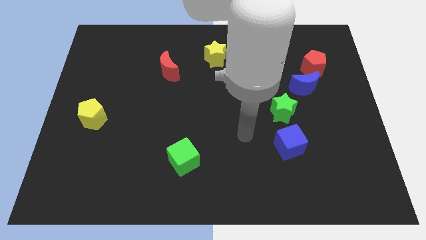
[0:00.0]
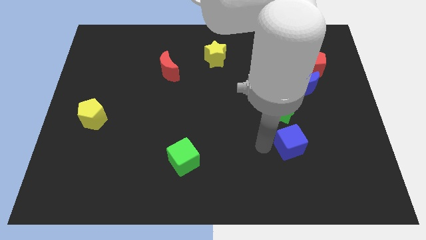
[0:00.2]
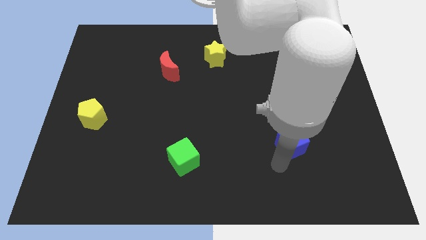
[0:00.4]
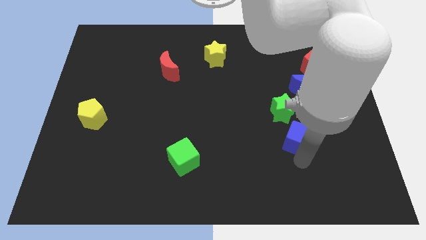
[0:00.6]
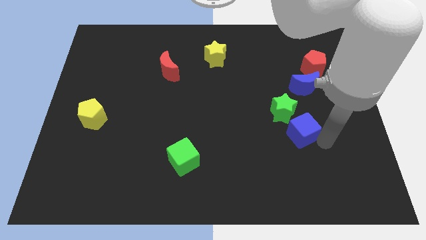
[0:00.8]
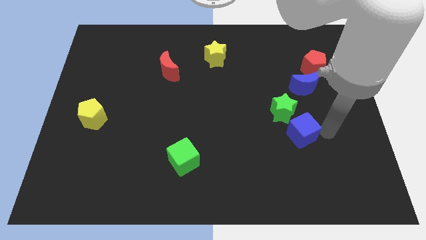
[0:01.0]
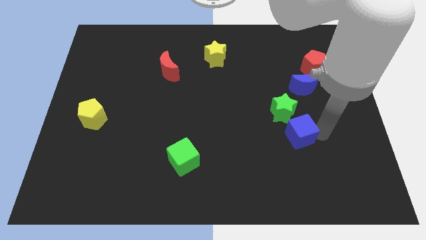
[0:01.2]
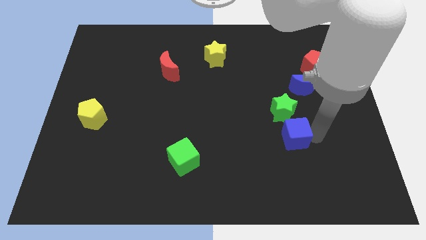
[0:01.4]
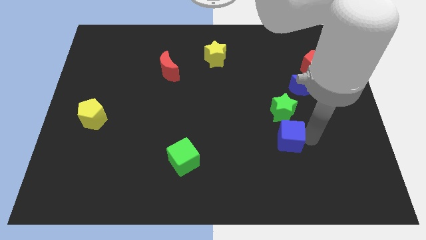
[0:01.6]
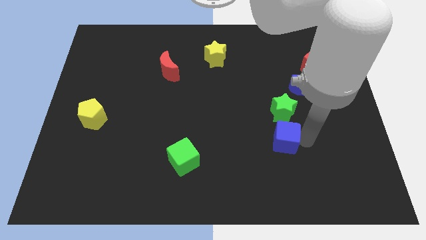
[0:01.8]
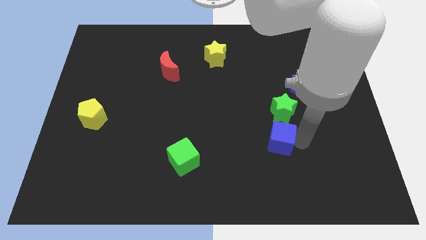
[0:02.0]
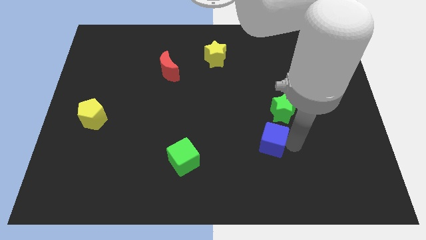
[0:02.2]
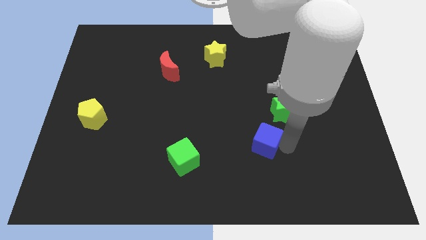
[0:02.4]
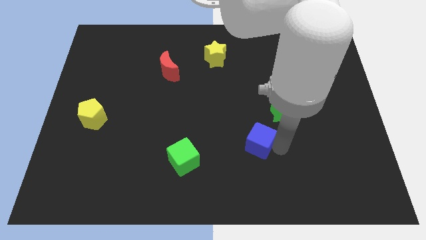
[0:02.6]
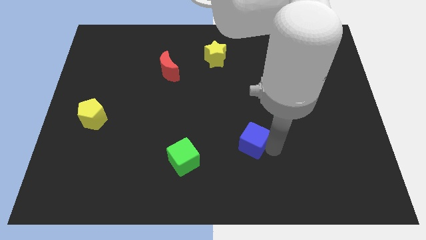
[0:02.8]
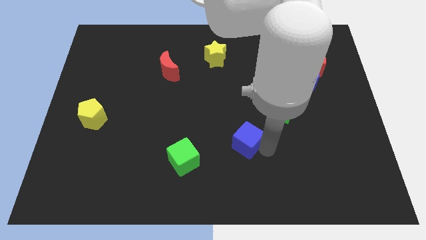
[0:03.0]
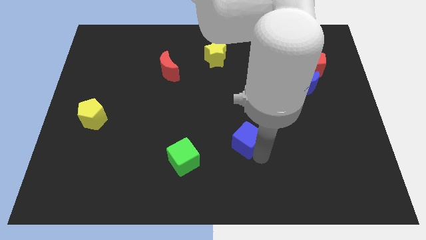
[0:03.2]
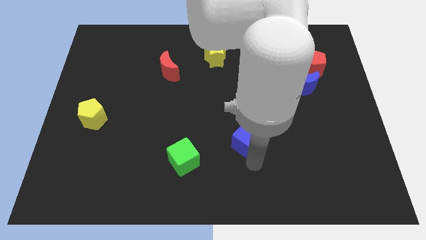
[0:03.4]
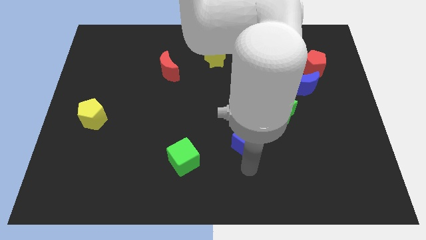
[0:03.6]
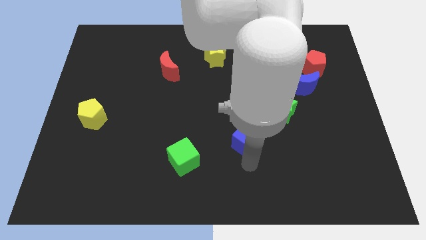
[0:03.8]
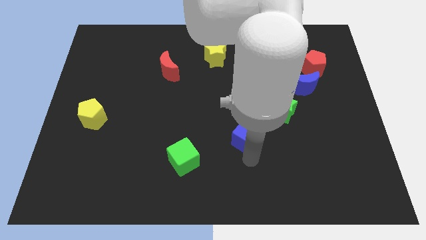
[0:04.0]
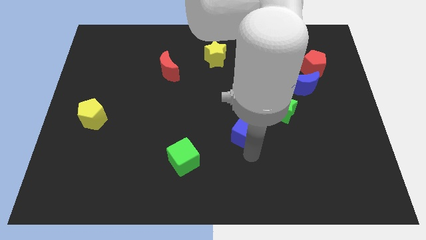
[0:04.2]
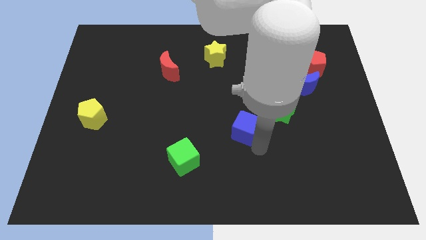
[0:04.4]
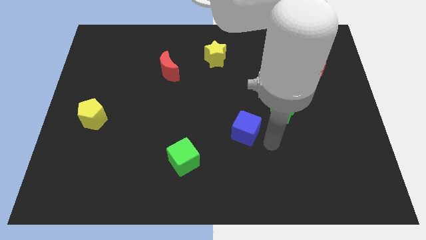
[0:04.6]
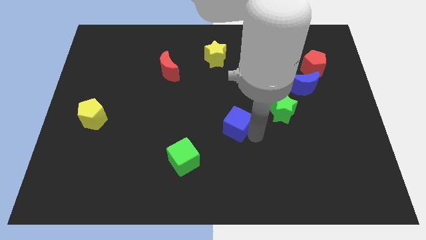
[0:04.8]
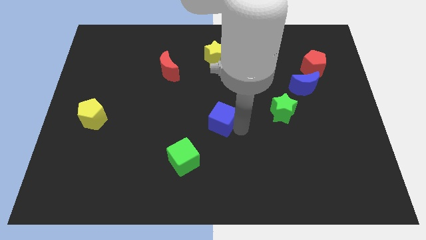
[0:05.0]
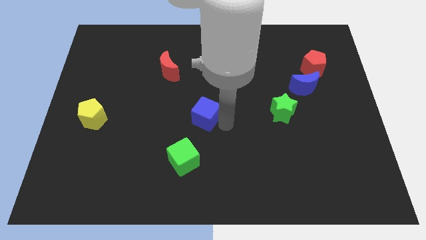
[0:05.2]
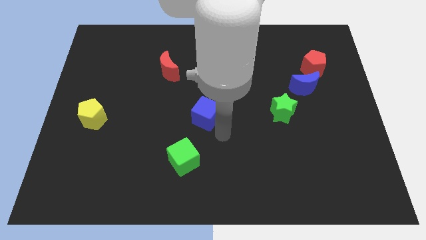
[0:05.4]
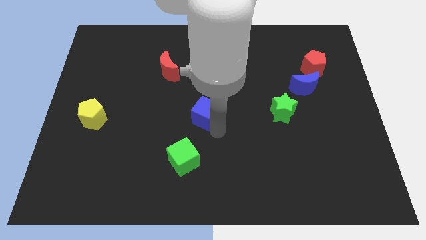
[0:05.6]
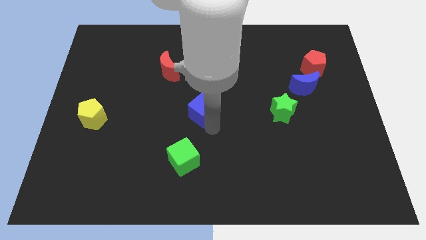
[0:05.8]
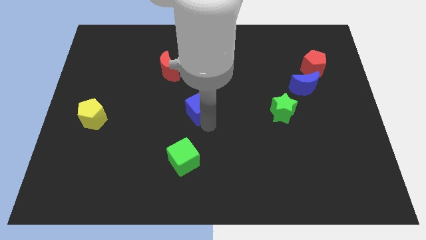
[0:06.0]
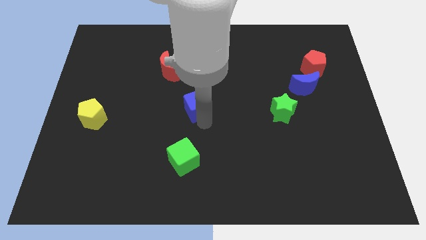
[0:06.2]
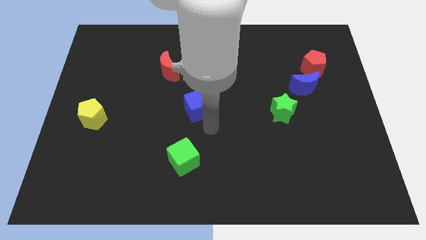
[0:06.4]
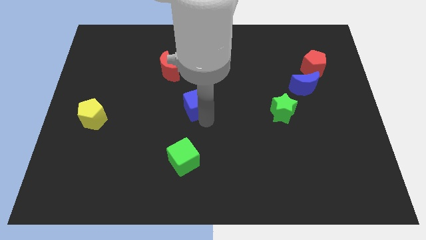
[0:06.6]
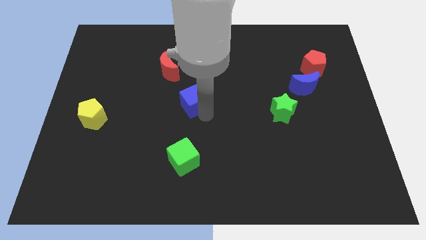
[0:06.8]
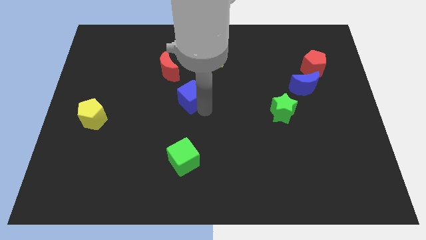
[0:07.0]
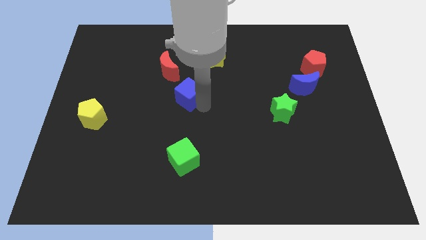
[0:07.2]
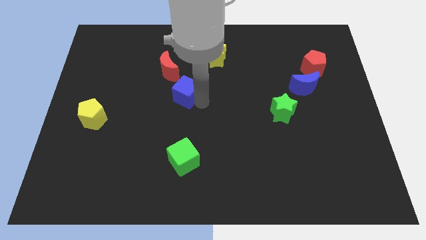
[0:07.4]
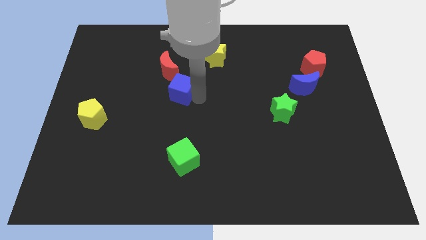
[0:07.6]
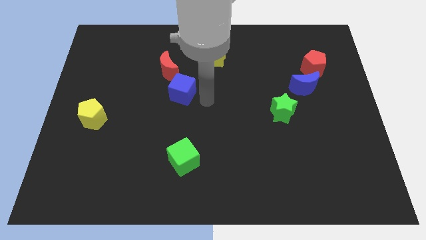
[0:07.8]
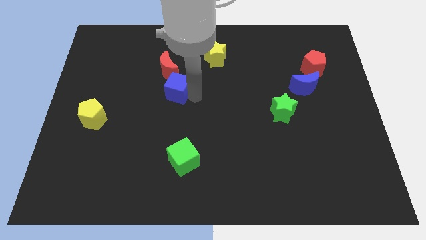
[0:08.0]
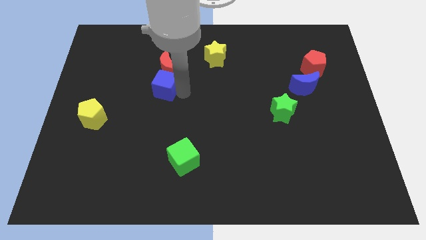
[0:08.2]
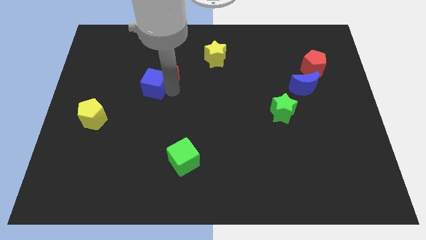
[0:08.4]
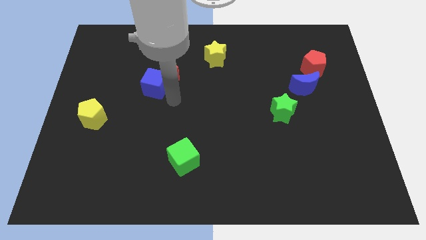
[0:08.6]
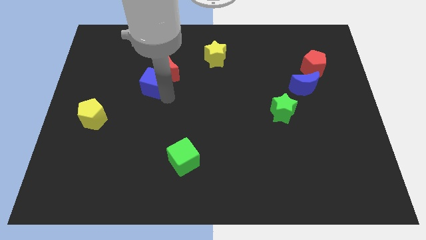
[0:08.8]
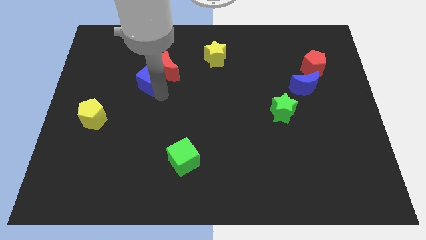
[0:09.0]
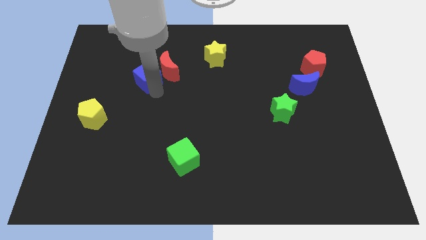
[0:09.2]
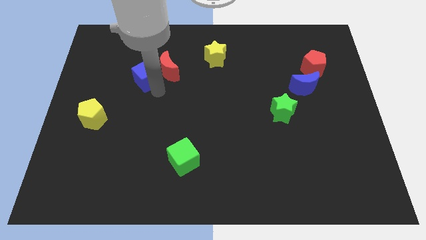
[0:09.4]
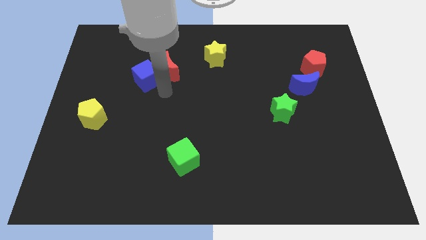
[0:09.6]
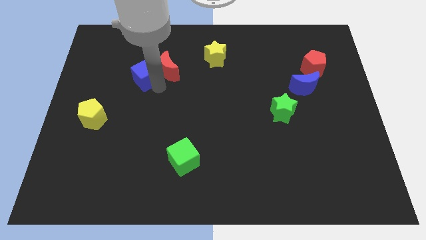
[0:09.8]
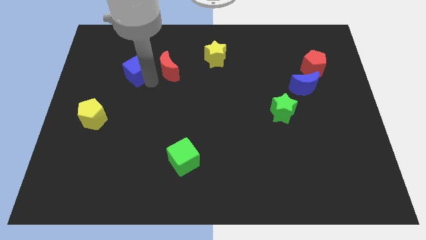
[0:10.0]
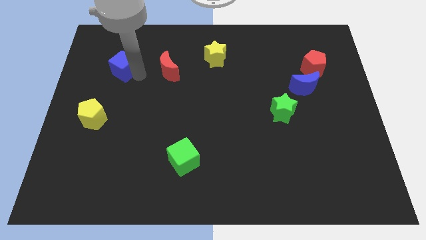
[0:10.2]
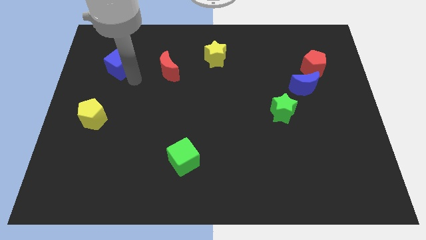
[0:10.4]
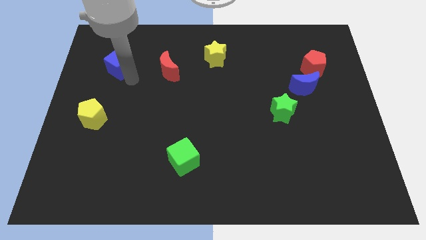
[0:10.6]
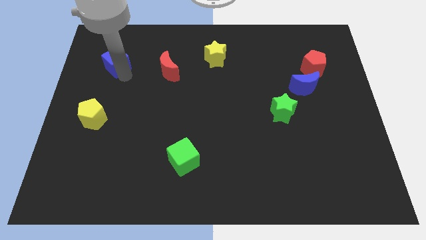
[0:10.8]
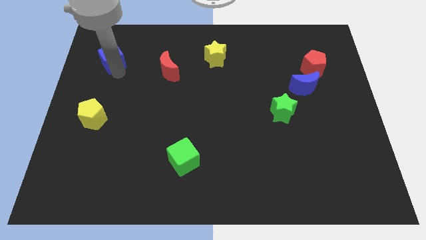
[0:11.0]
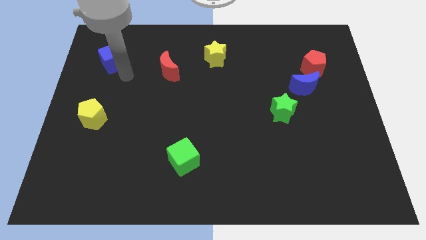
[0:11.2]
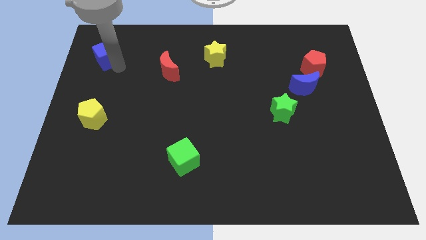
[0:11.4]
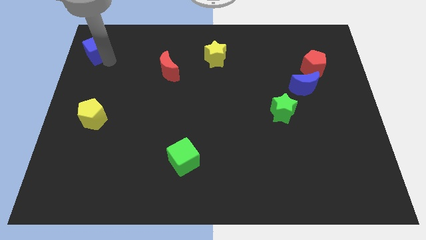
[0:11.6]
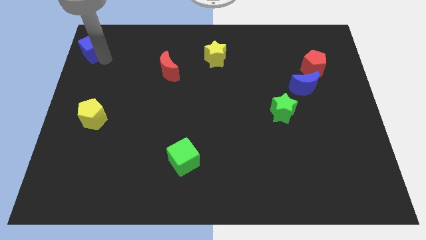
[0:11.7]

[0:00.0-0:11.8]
put the blue cube to the top left

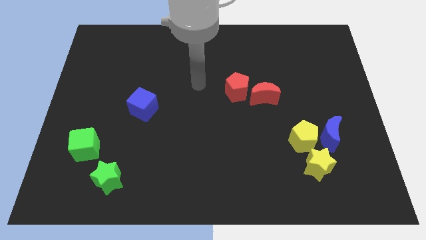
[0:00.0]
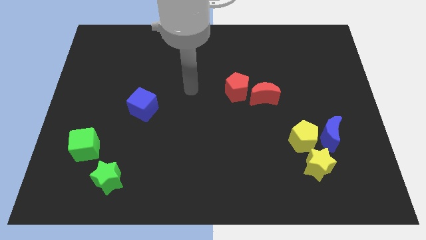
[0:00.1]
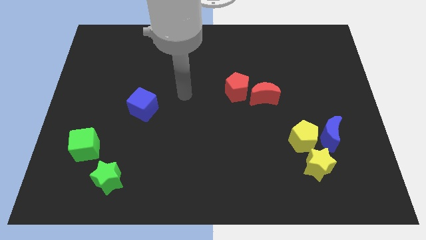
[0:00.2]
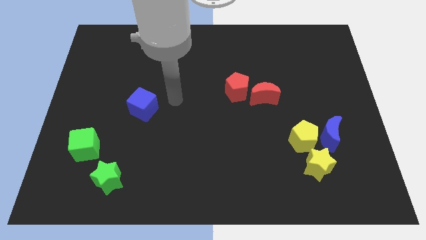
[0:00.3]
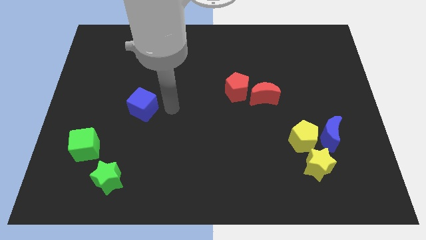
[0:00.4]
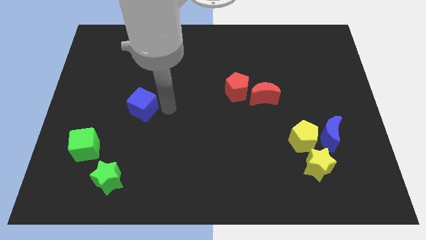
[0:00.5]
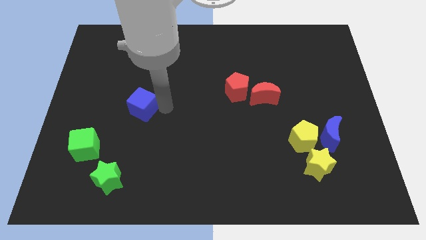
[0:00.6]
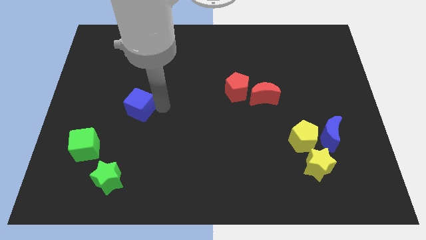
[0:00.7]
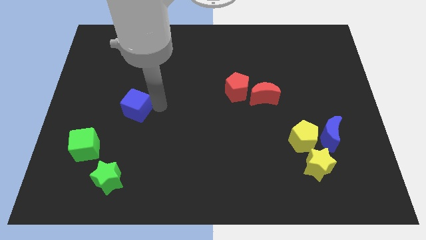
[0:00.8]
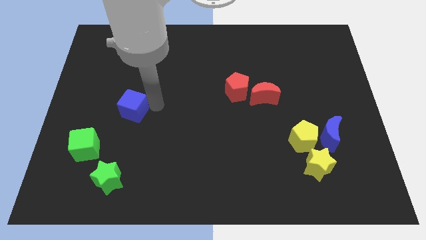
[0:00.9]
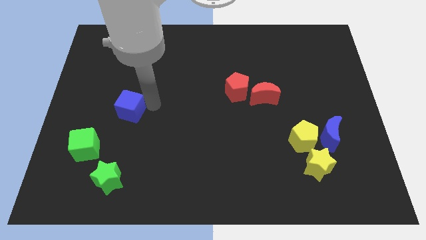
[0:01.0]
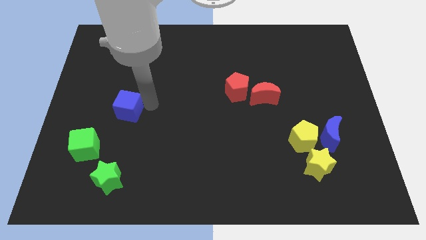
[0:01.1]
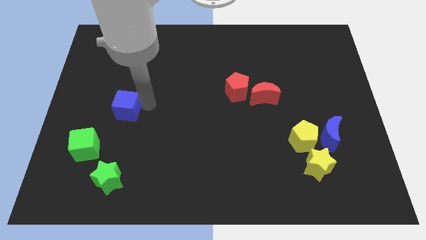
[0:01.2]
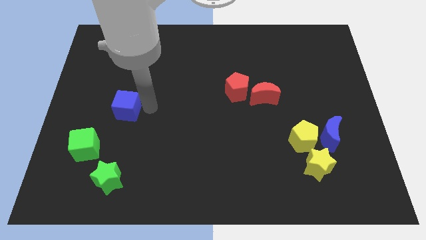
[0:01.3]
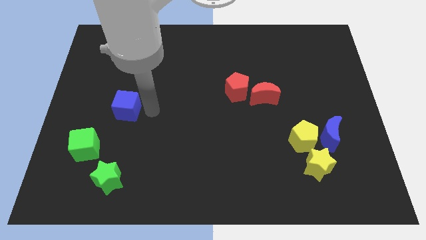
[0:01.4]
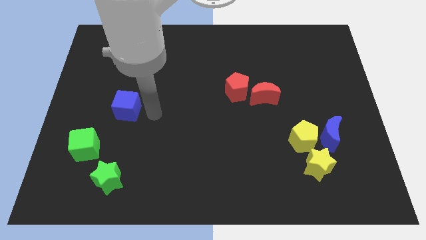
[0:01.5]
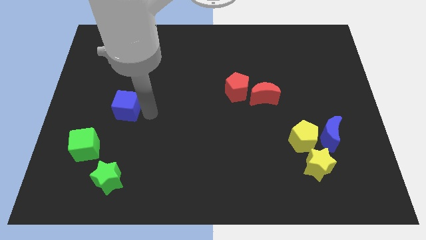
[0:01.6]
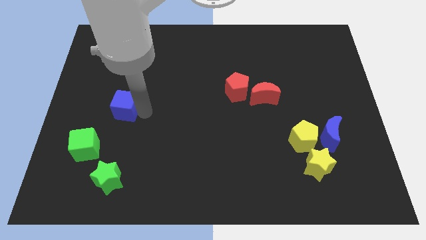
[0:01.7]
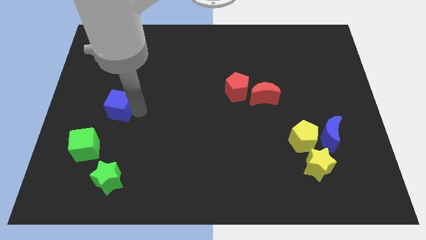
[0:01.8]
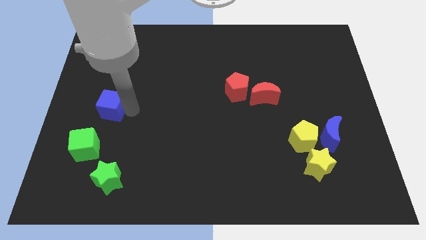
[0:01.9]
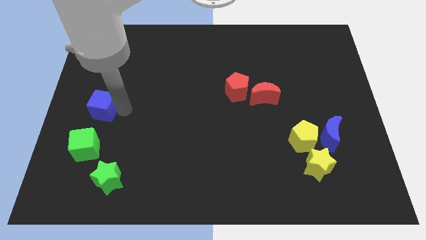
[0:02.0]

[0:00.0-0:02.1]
move the blue cube to the left side of the board
